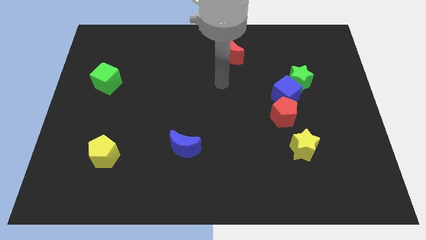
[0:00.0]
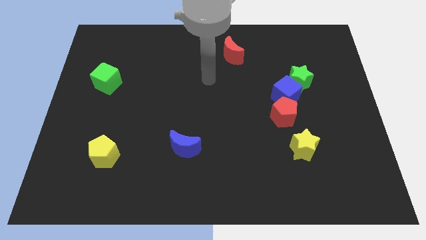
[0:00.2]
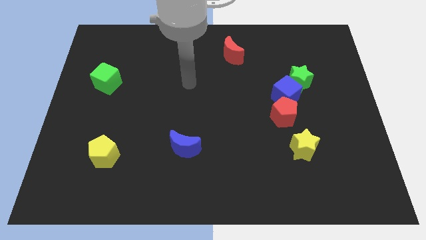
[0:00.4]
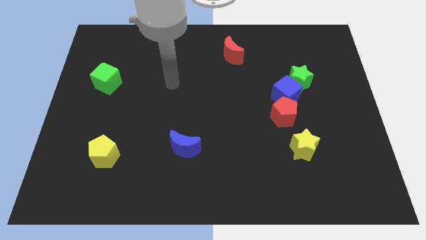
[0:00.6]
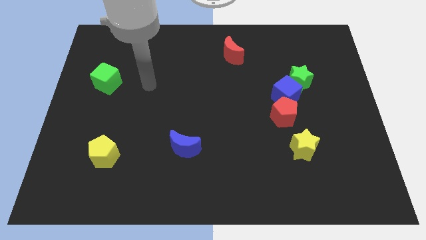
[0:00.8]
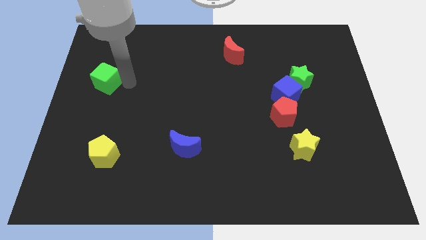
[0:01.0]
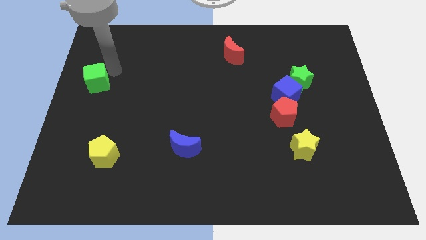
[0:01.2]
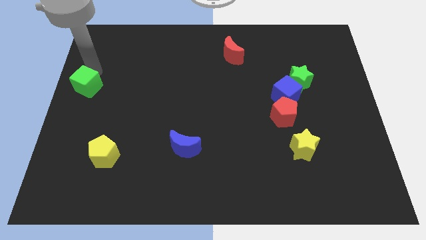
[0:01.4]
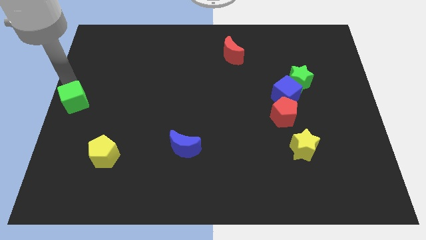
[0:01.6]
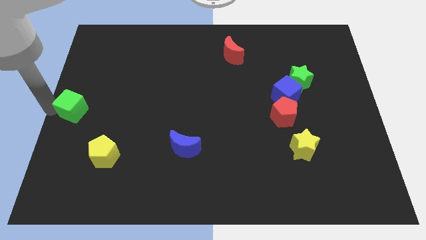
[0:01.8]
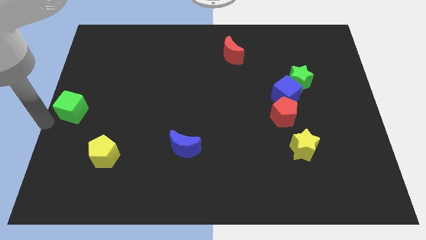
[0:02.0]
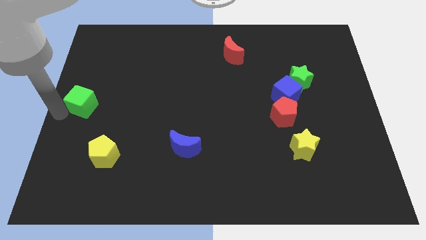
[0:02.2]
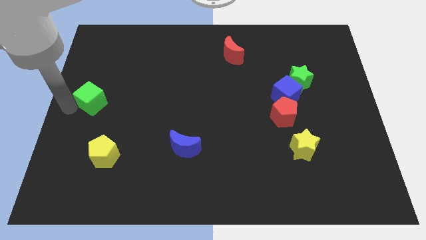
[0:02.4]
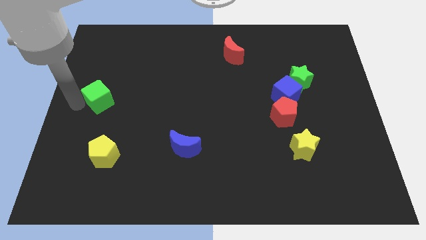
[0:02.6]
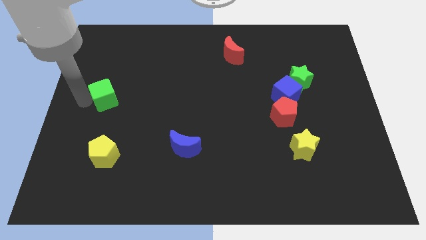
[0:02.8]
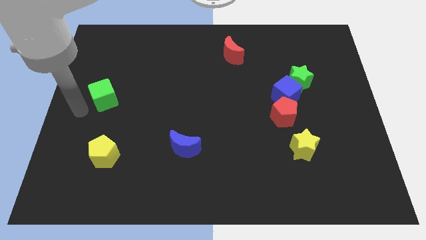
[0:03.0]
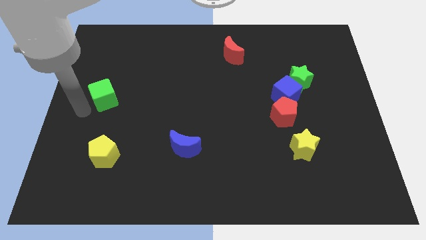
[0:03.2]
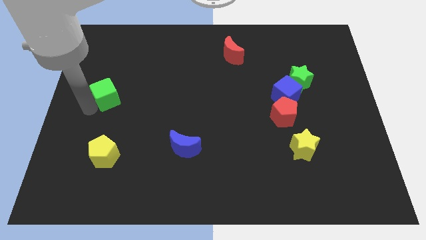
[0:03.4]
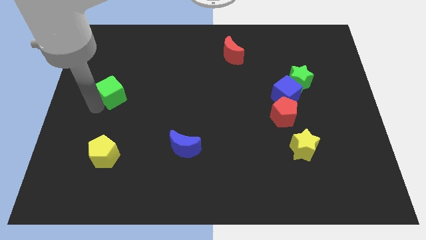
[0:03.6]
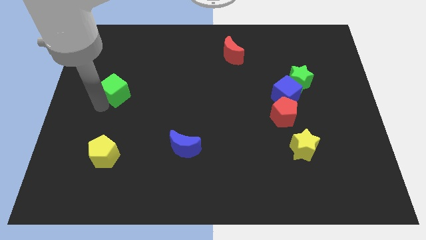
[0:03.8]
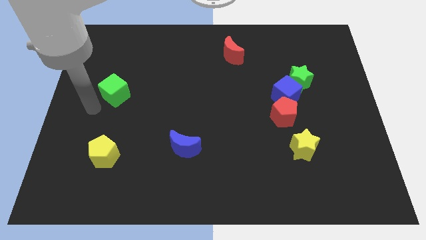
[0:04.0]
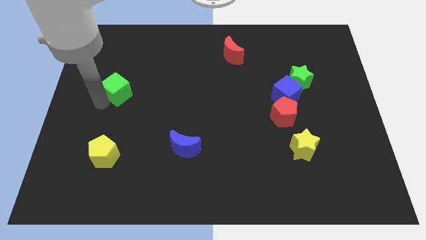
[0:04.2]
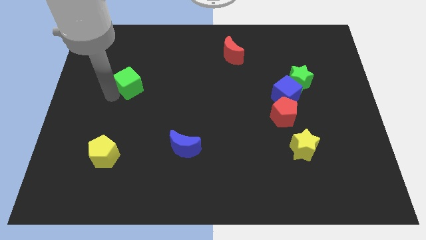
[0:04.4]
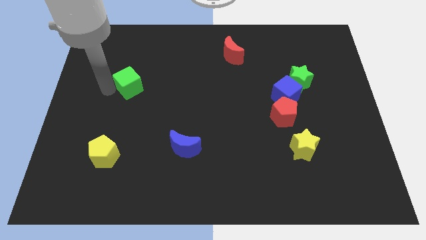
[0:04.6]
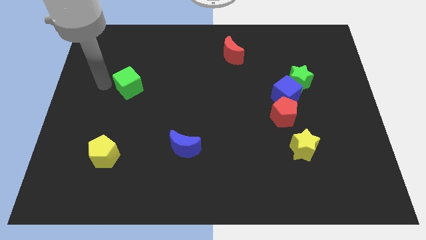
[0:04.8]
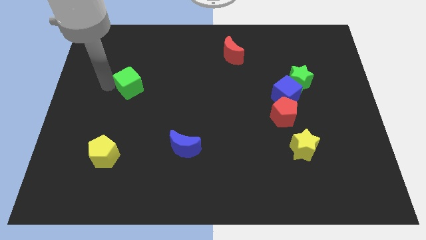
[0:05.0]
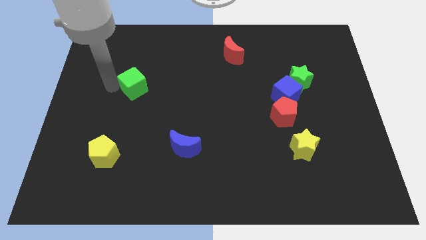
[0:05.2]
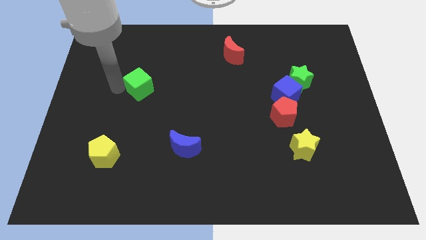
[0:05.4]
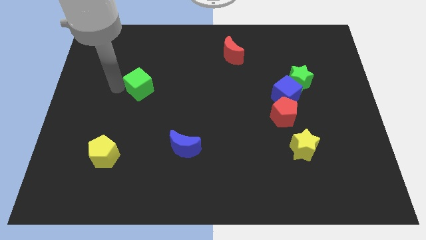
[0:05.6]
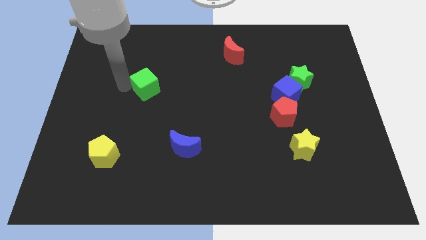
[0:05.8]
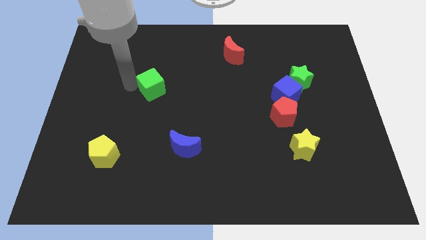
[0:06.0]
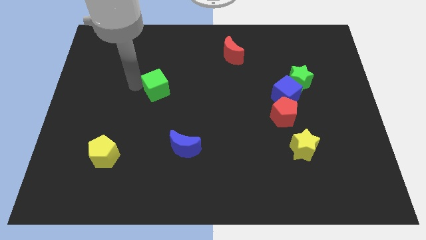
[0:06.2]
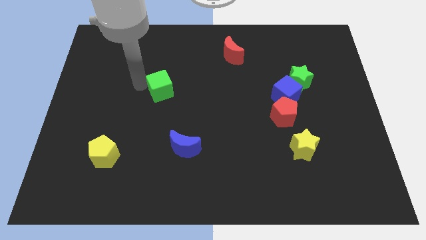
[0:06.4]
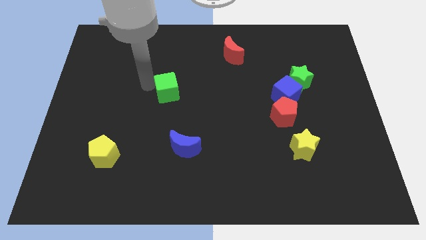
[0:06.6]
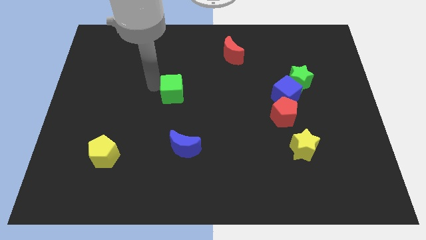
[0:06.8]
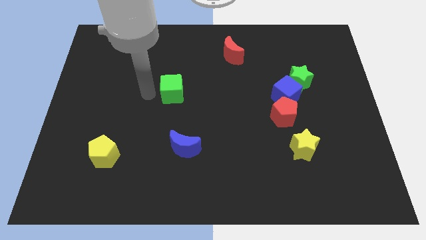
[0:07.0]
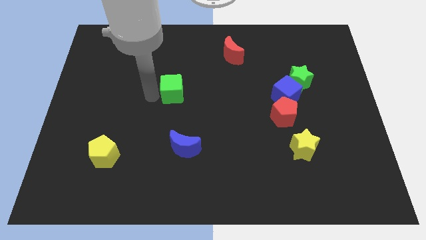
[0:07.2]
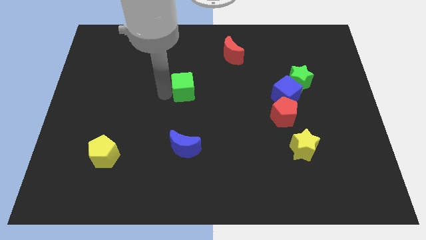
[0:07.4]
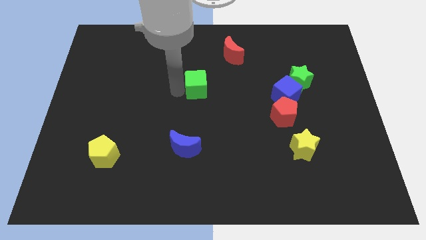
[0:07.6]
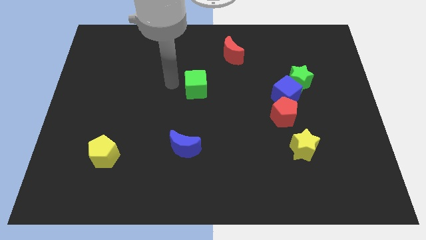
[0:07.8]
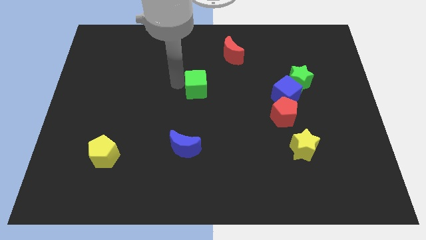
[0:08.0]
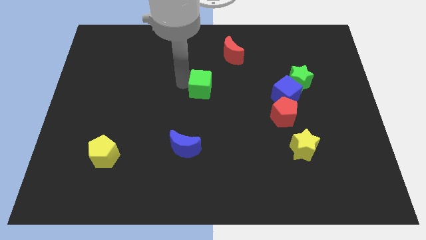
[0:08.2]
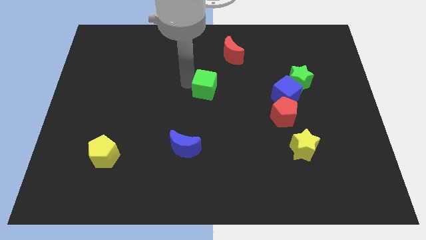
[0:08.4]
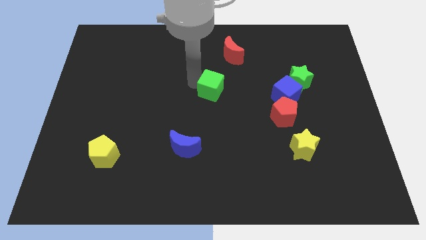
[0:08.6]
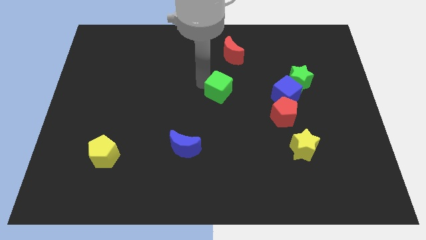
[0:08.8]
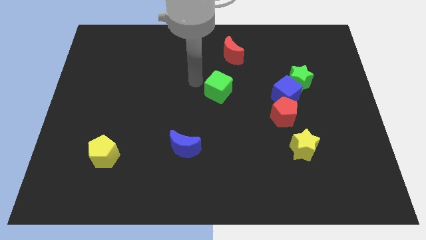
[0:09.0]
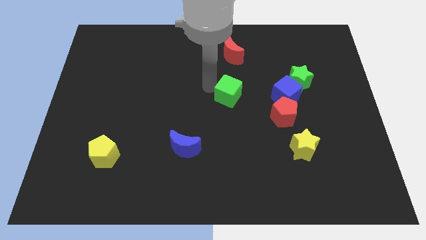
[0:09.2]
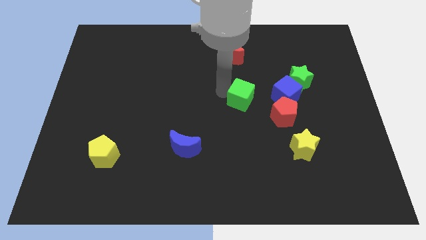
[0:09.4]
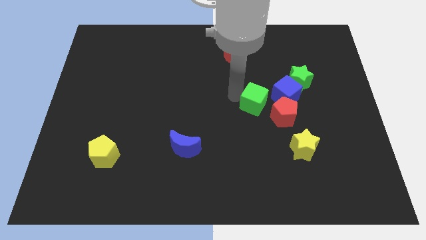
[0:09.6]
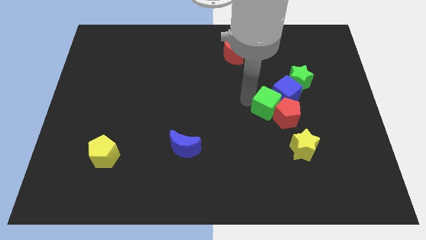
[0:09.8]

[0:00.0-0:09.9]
slide the green cube next to the red pentagon

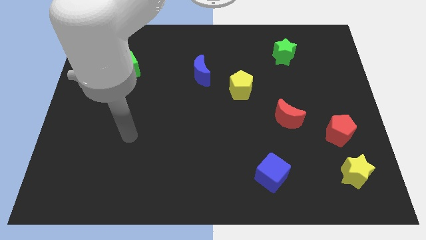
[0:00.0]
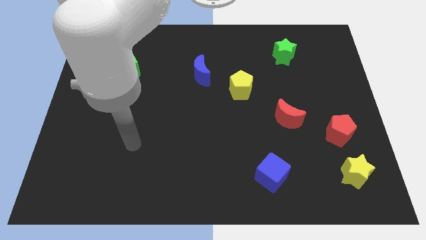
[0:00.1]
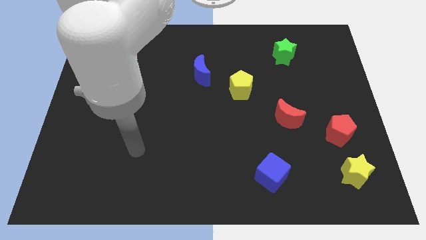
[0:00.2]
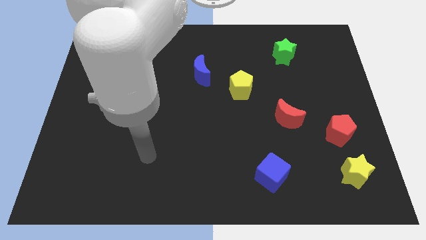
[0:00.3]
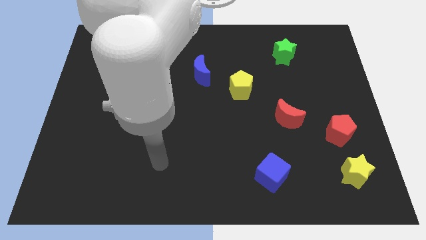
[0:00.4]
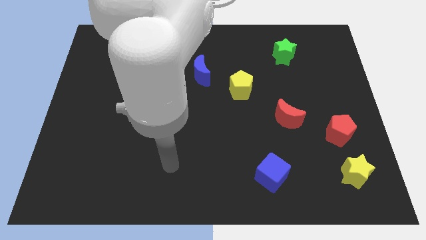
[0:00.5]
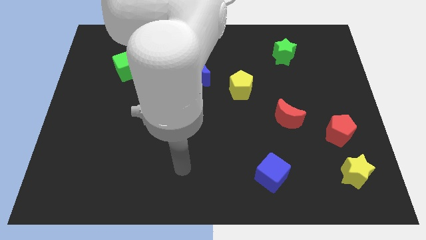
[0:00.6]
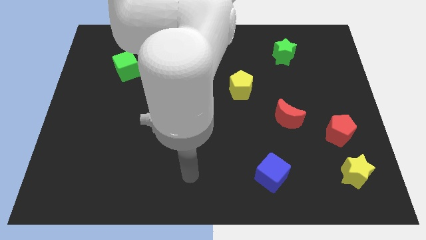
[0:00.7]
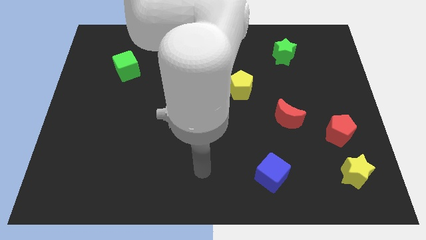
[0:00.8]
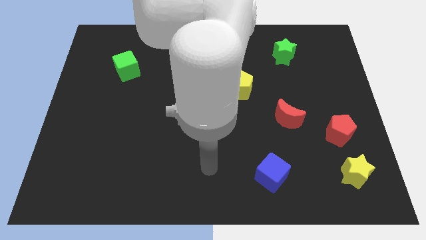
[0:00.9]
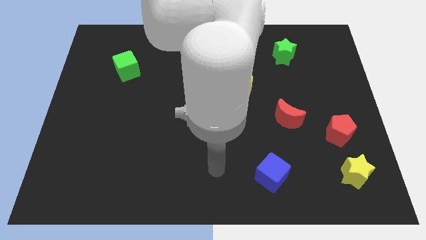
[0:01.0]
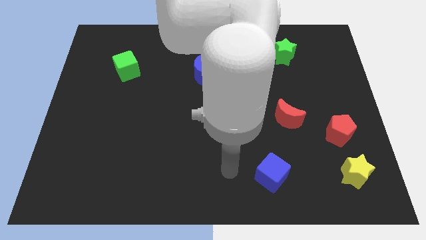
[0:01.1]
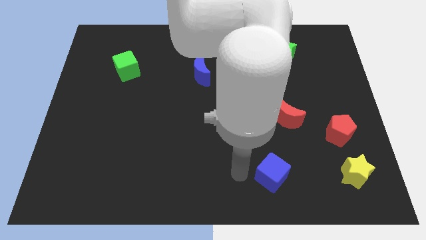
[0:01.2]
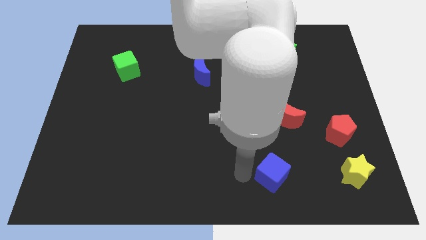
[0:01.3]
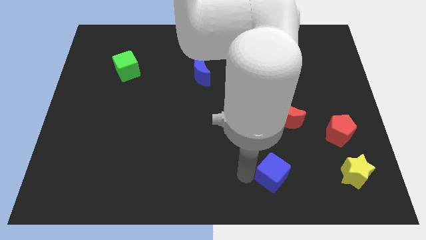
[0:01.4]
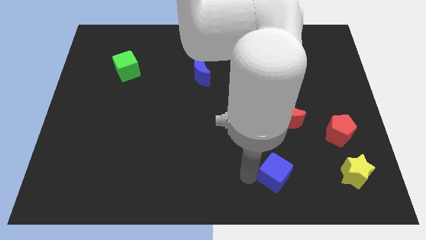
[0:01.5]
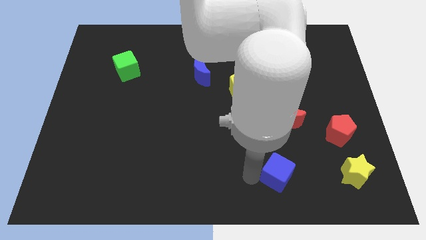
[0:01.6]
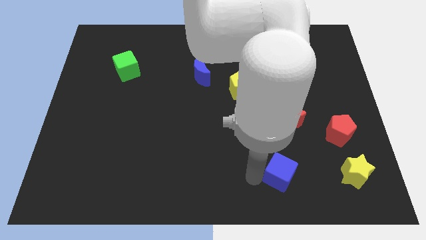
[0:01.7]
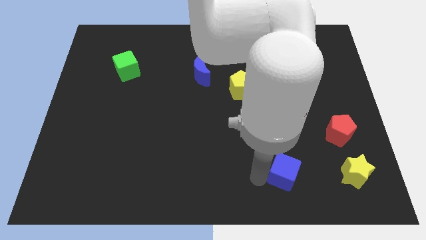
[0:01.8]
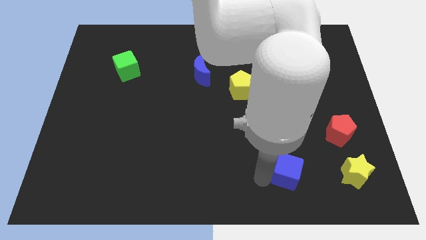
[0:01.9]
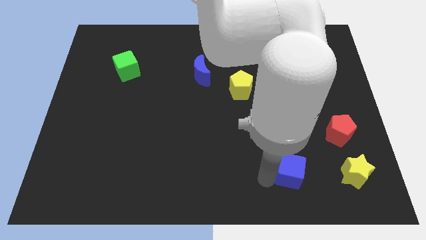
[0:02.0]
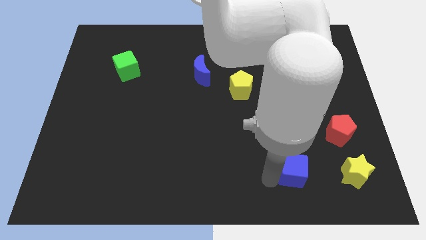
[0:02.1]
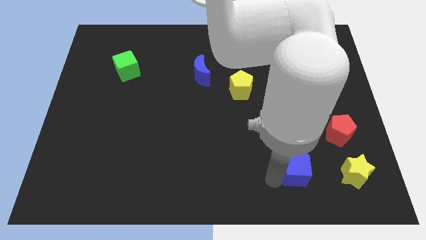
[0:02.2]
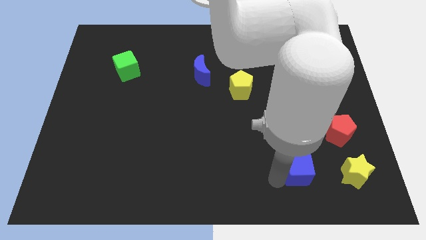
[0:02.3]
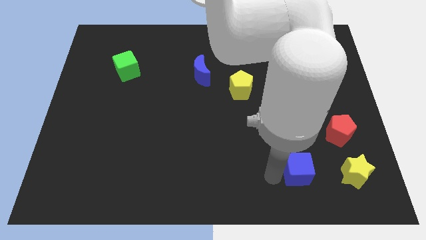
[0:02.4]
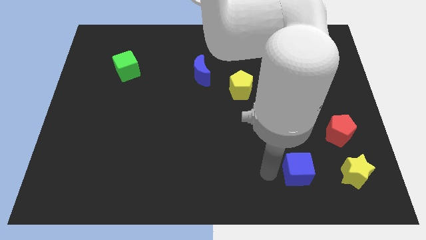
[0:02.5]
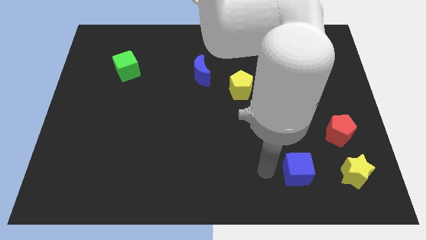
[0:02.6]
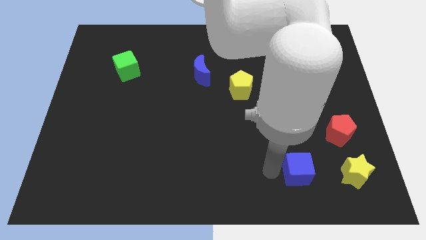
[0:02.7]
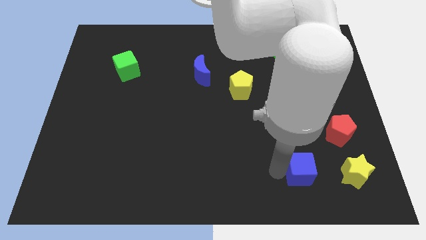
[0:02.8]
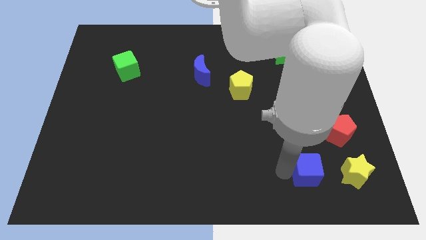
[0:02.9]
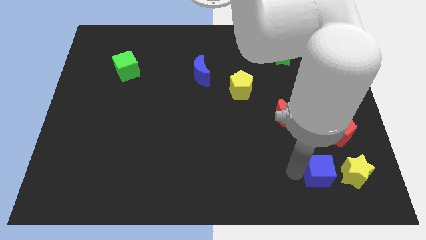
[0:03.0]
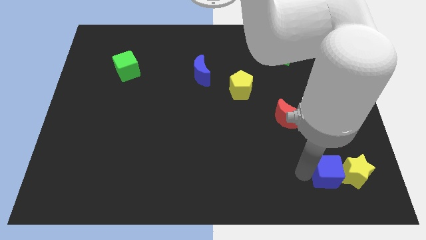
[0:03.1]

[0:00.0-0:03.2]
put the blue cube towards the yellow star
